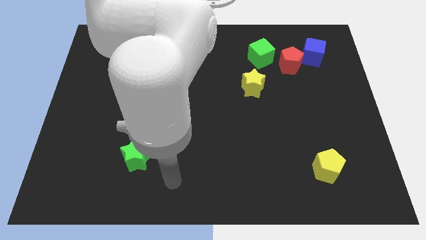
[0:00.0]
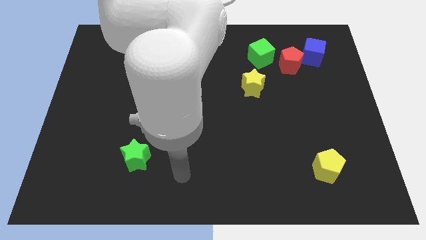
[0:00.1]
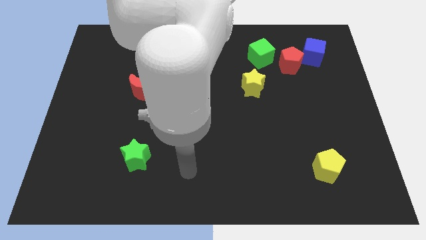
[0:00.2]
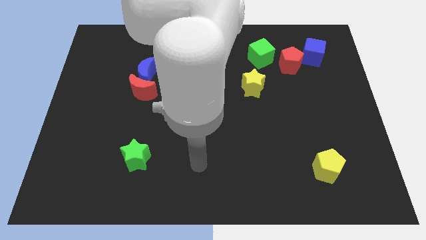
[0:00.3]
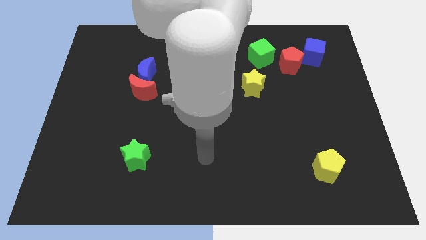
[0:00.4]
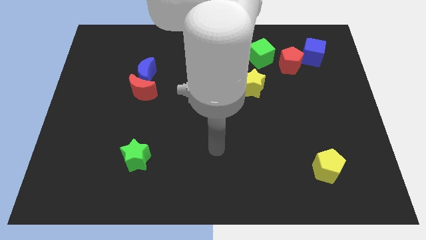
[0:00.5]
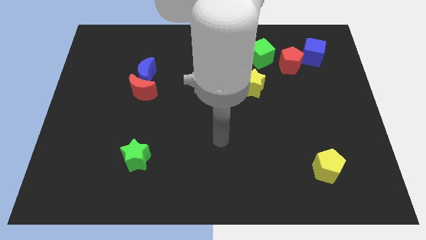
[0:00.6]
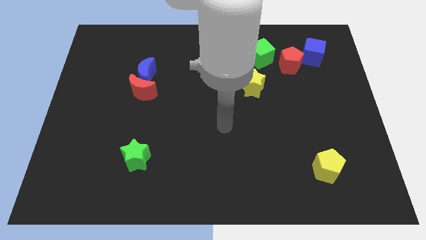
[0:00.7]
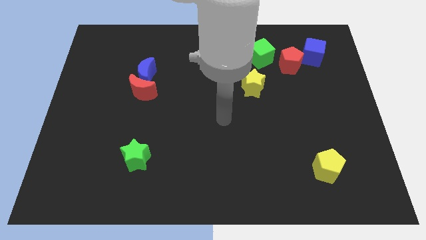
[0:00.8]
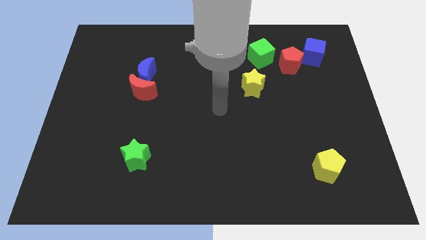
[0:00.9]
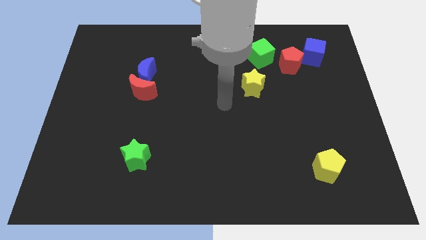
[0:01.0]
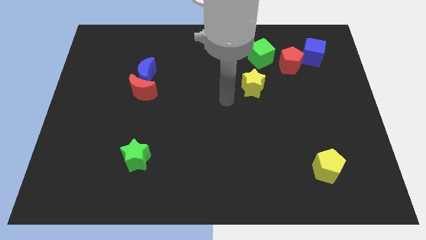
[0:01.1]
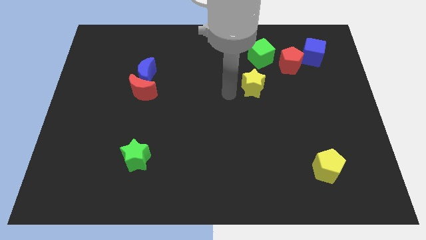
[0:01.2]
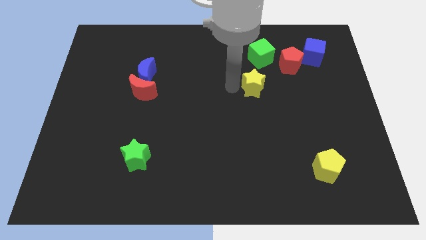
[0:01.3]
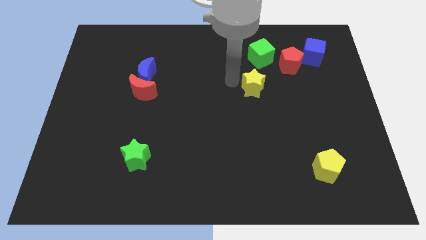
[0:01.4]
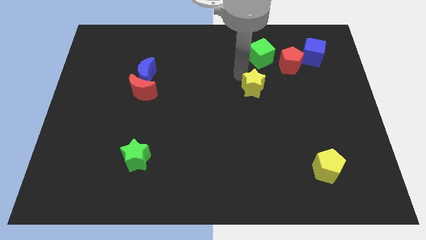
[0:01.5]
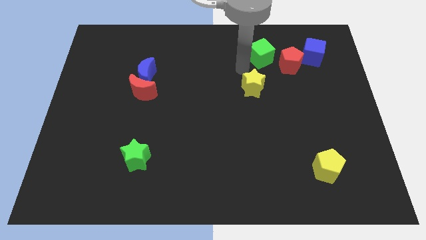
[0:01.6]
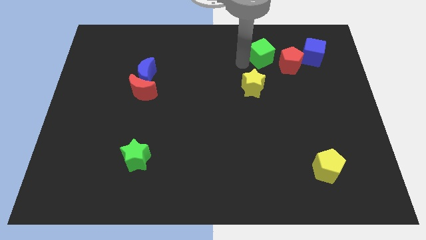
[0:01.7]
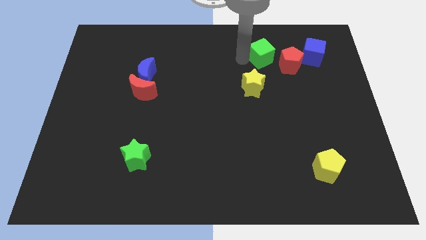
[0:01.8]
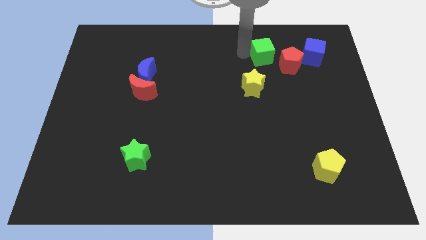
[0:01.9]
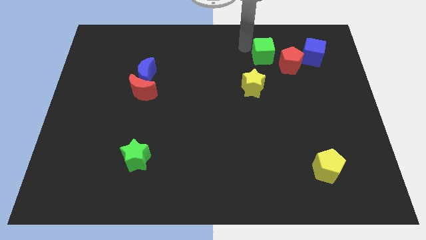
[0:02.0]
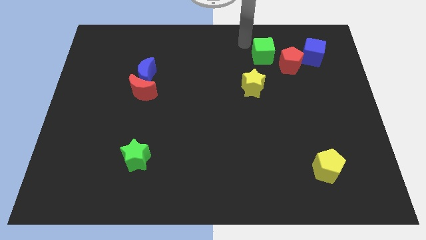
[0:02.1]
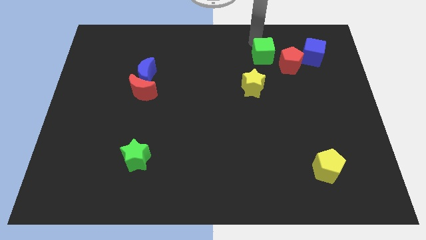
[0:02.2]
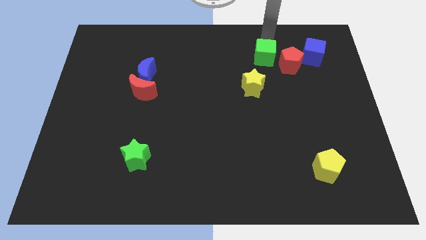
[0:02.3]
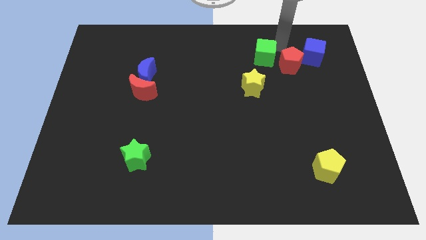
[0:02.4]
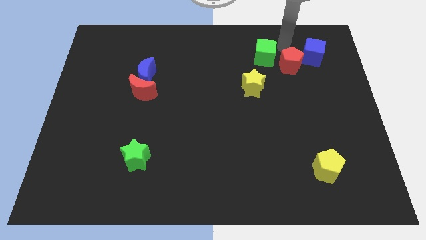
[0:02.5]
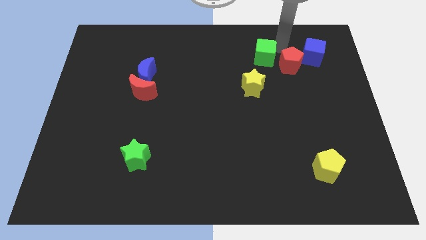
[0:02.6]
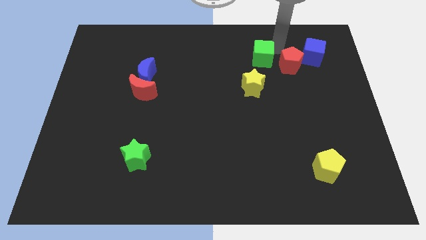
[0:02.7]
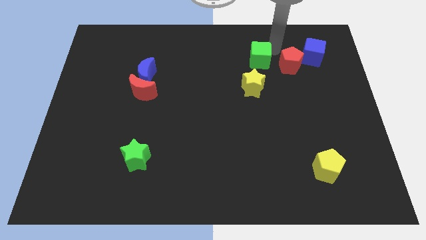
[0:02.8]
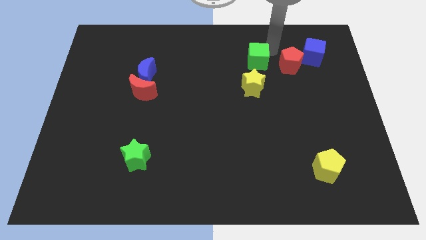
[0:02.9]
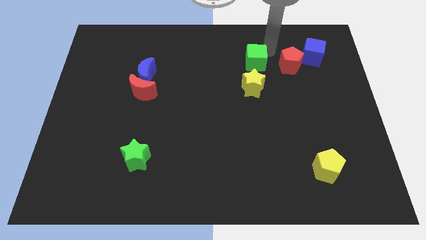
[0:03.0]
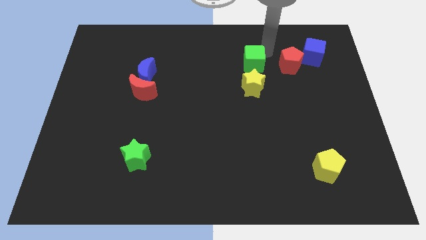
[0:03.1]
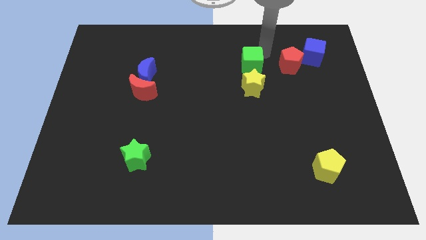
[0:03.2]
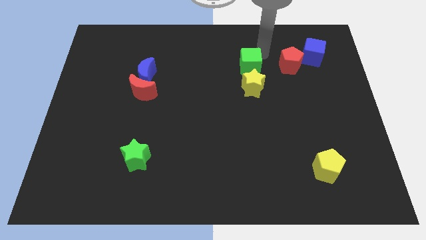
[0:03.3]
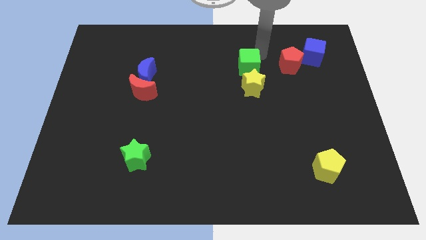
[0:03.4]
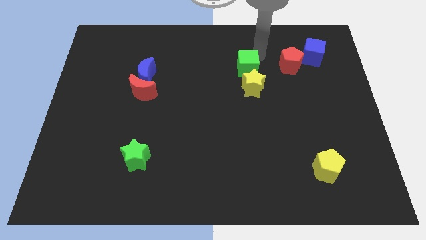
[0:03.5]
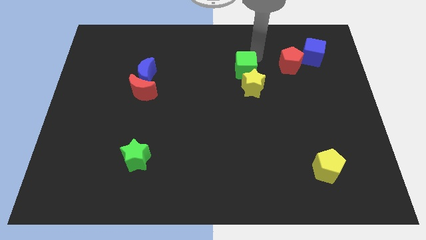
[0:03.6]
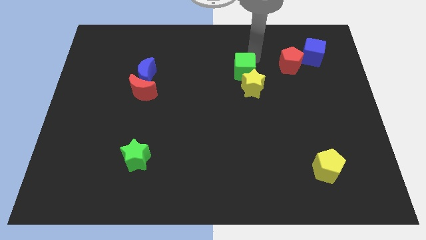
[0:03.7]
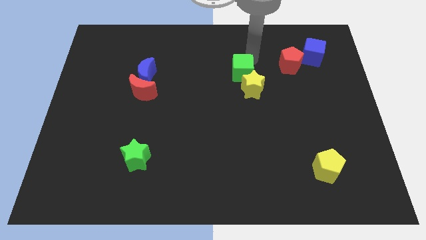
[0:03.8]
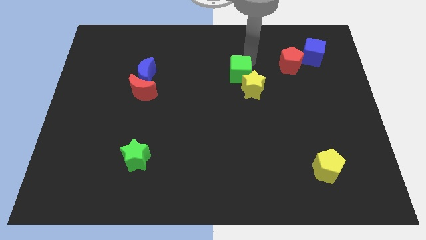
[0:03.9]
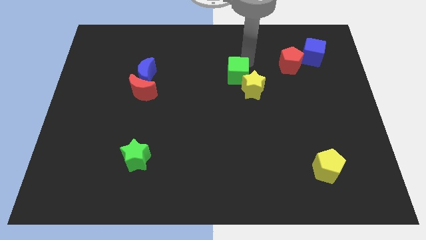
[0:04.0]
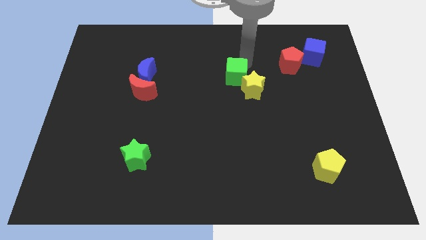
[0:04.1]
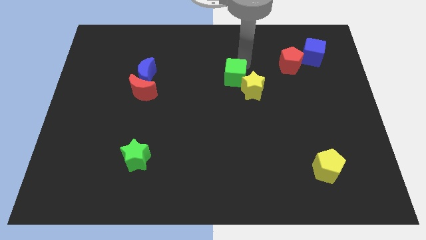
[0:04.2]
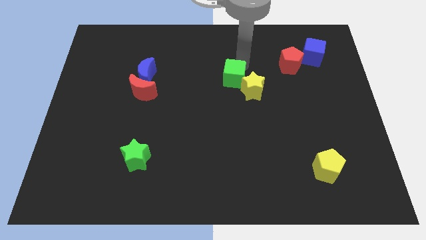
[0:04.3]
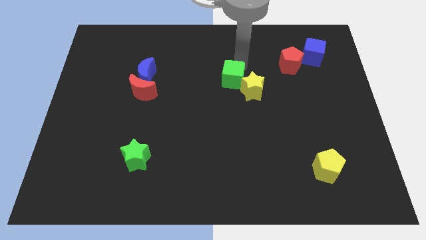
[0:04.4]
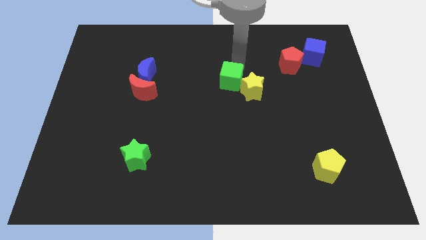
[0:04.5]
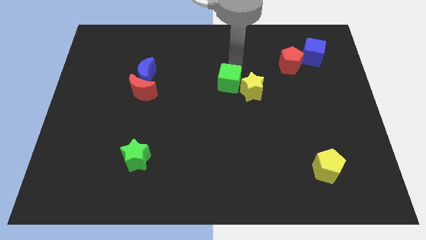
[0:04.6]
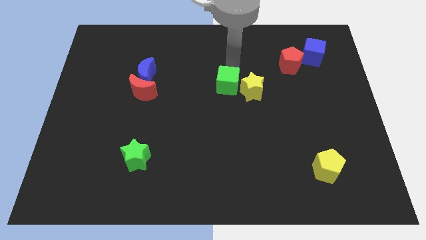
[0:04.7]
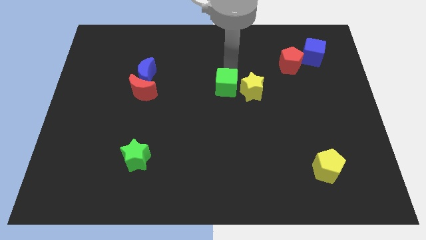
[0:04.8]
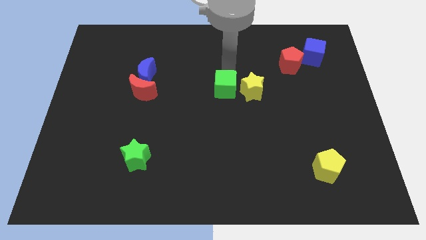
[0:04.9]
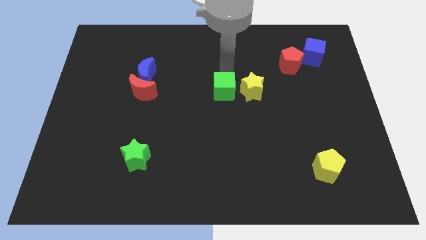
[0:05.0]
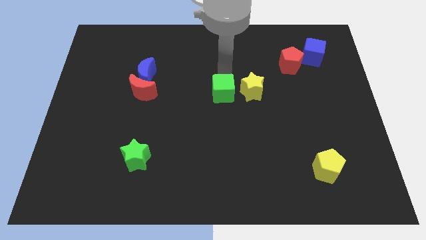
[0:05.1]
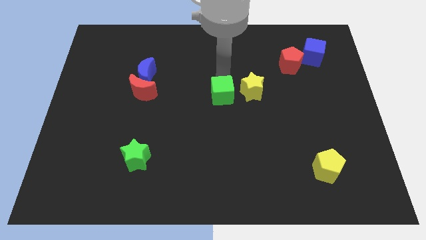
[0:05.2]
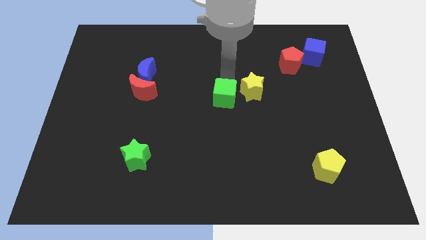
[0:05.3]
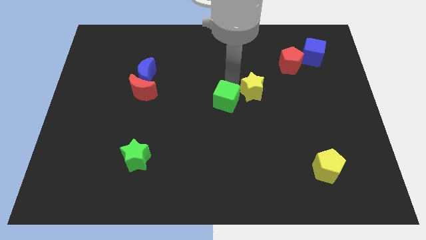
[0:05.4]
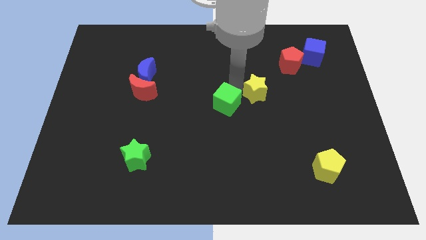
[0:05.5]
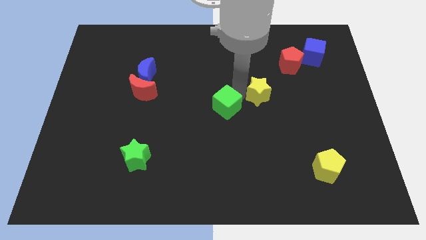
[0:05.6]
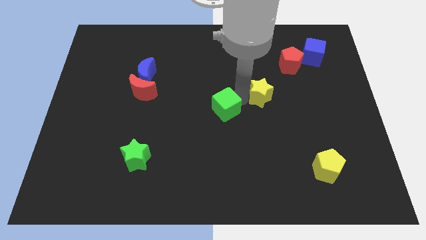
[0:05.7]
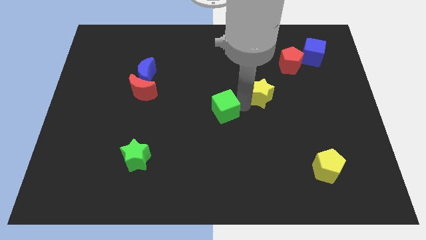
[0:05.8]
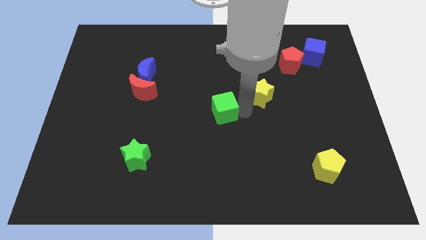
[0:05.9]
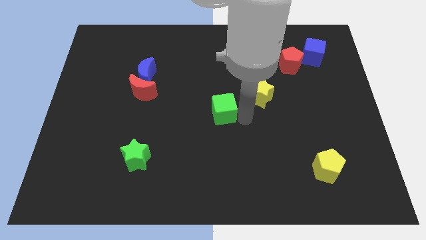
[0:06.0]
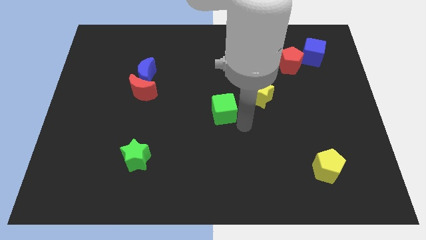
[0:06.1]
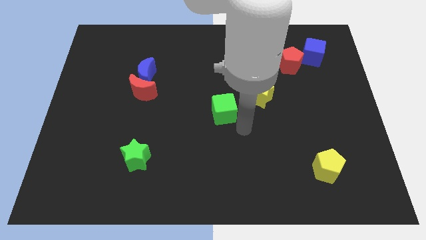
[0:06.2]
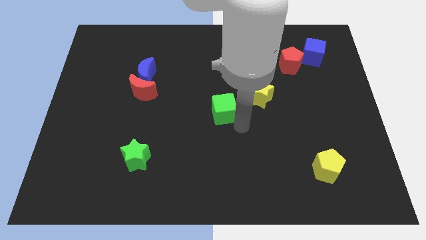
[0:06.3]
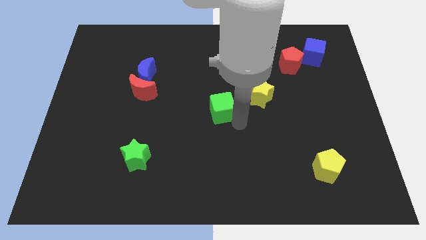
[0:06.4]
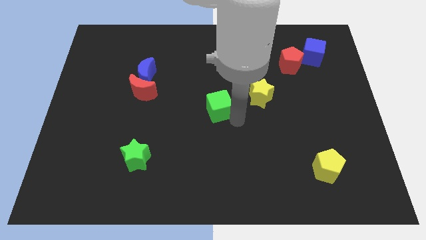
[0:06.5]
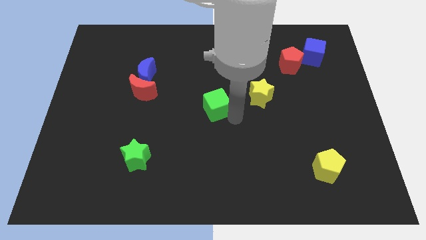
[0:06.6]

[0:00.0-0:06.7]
push the green cube down and left diagonally

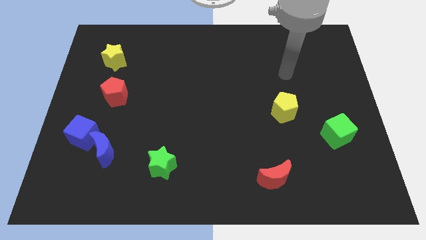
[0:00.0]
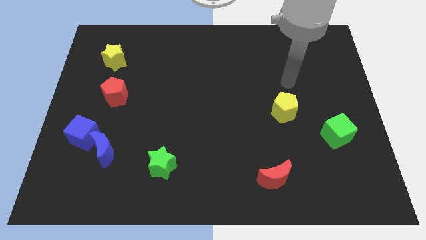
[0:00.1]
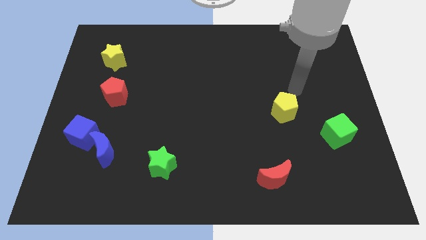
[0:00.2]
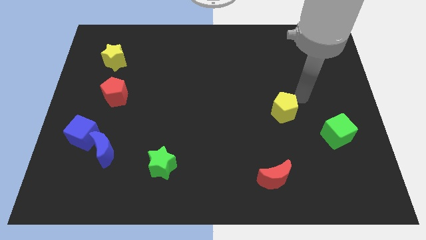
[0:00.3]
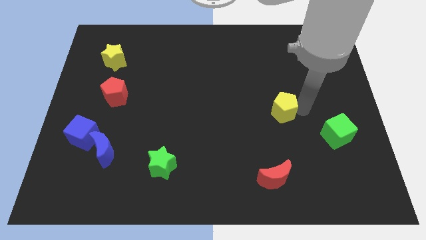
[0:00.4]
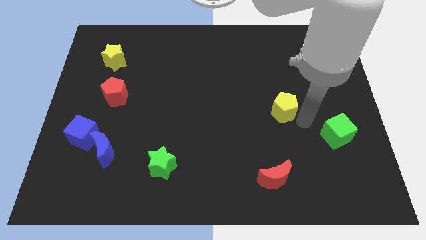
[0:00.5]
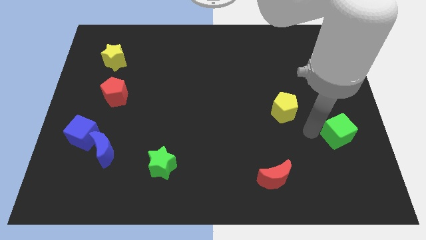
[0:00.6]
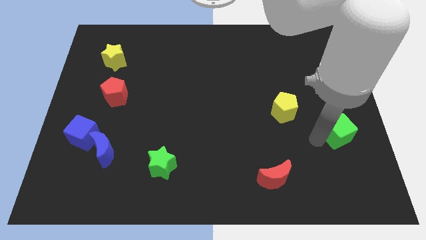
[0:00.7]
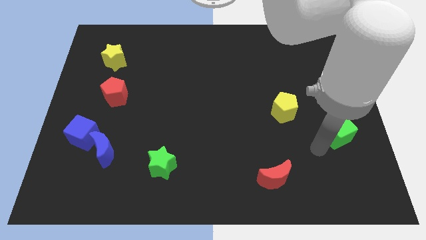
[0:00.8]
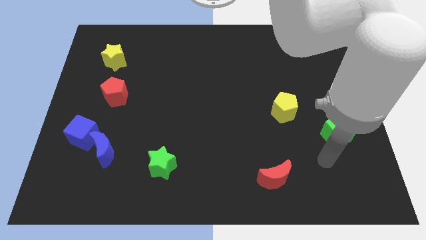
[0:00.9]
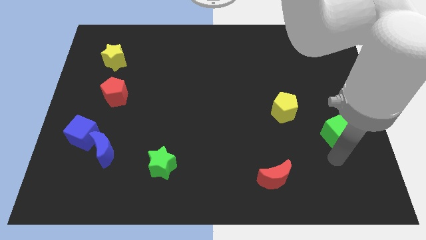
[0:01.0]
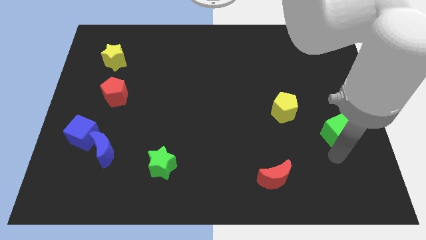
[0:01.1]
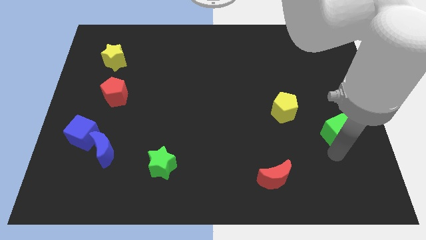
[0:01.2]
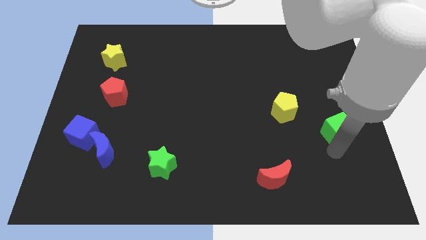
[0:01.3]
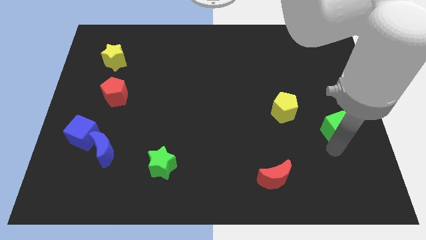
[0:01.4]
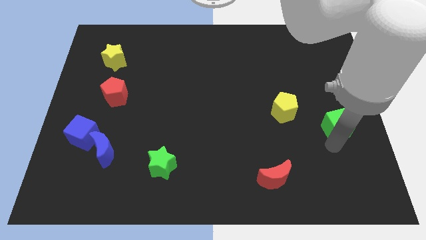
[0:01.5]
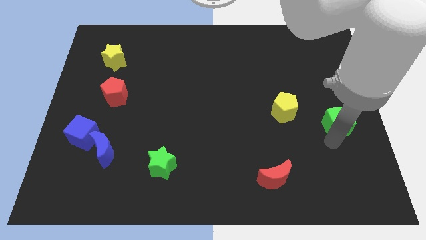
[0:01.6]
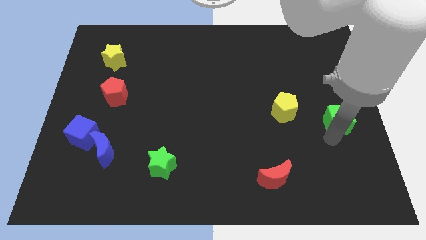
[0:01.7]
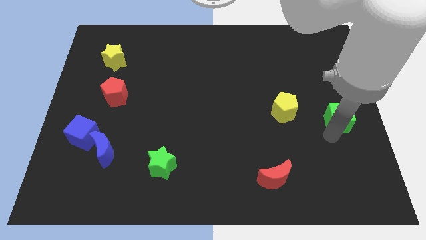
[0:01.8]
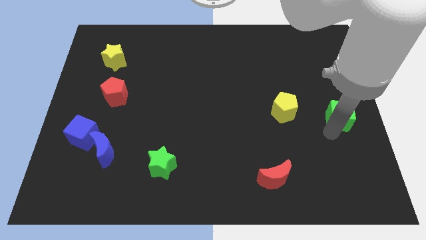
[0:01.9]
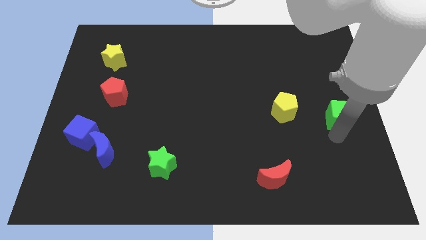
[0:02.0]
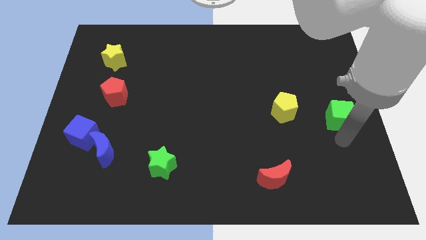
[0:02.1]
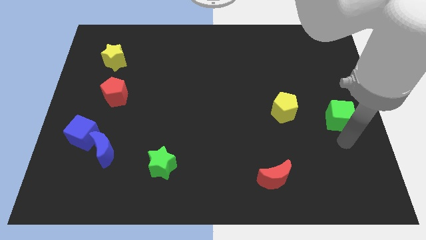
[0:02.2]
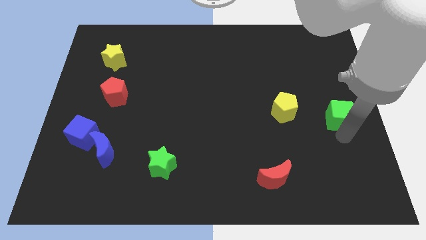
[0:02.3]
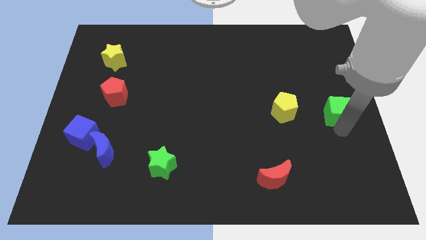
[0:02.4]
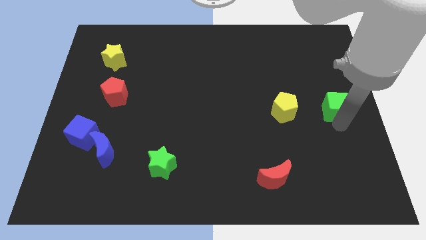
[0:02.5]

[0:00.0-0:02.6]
slightly push the green cube up
